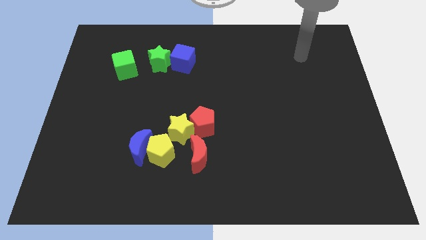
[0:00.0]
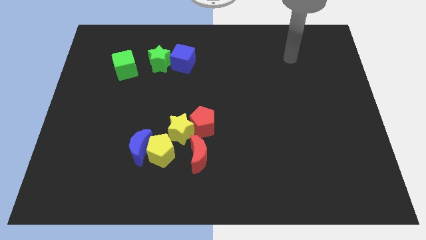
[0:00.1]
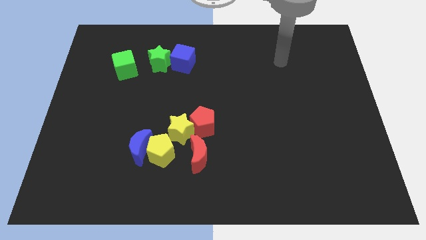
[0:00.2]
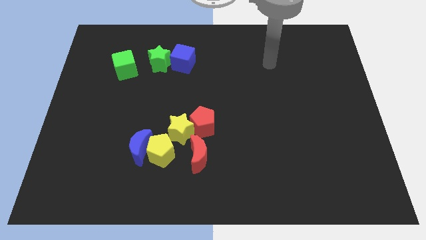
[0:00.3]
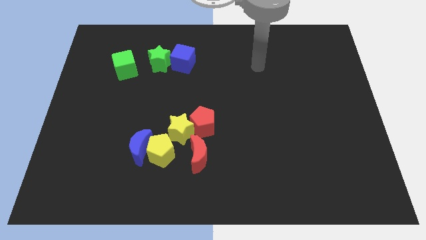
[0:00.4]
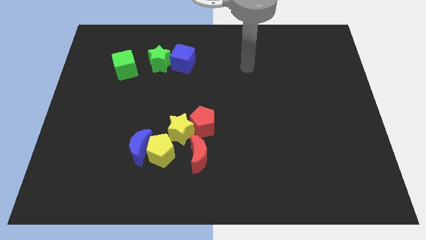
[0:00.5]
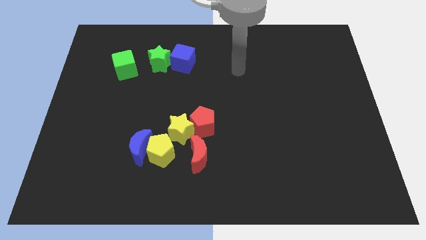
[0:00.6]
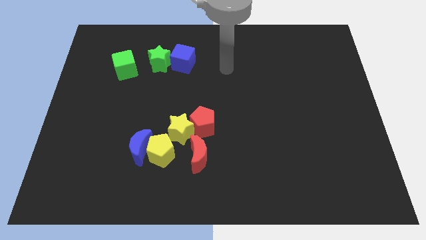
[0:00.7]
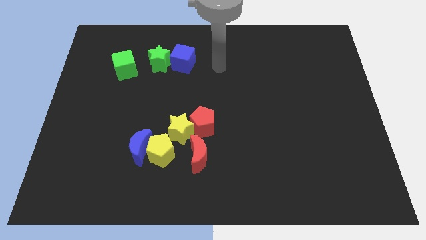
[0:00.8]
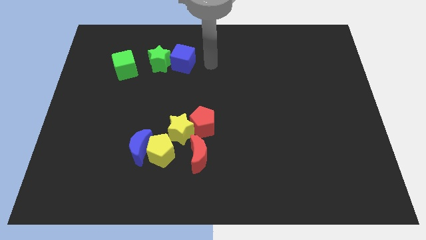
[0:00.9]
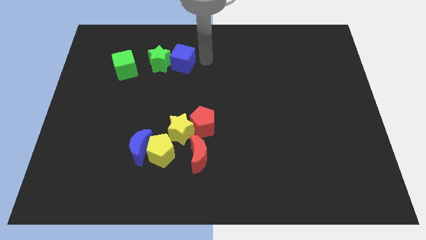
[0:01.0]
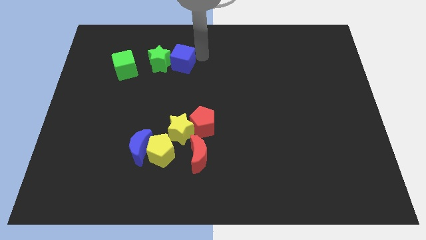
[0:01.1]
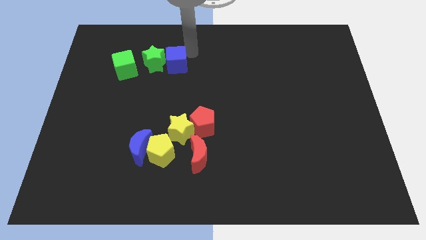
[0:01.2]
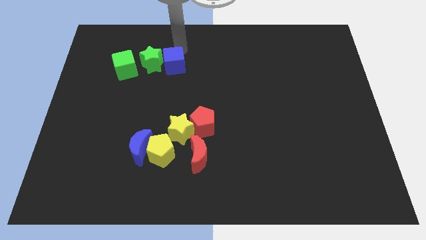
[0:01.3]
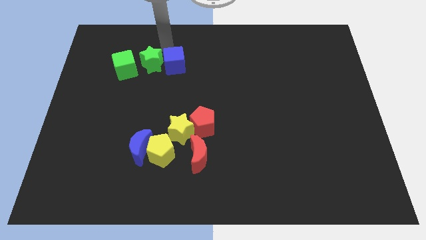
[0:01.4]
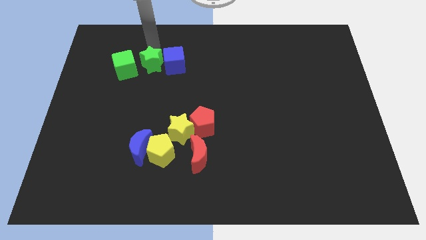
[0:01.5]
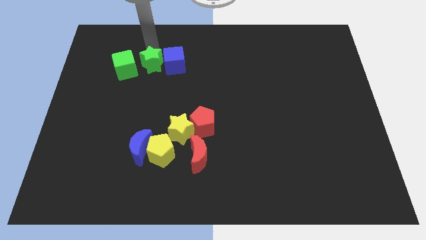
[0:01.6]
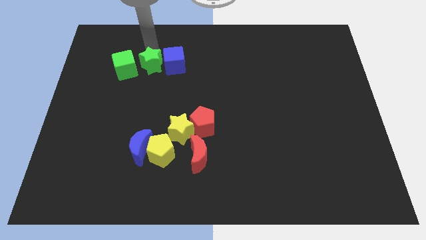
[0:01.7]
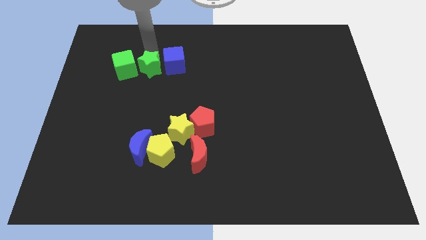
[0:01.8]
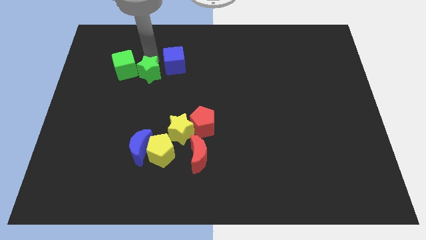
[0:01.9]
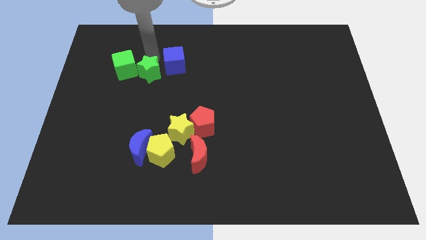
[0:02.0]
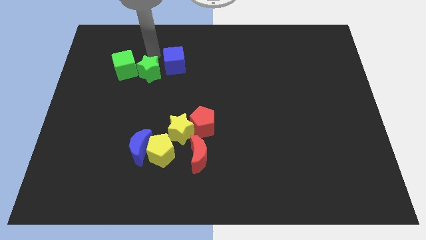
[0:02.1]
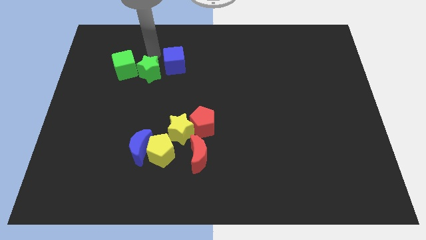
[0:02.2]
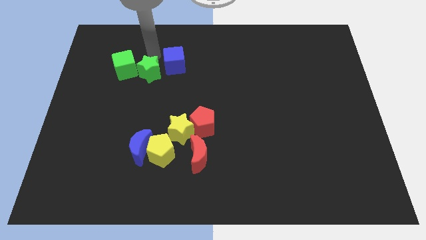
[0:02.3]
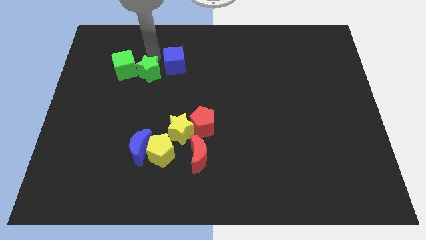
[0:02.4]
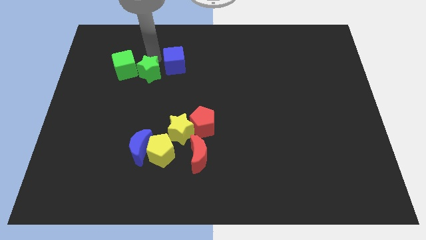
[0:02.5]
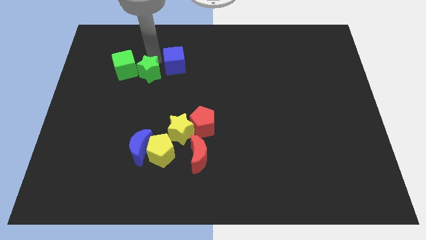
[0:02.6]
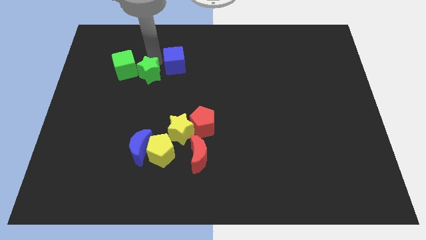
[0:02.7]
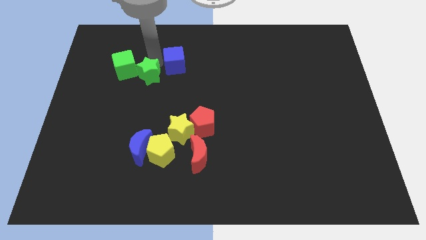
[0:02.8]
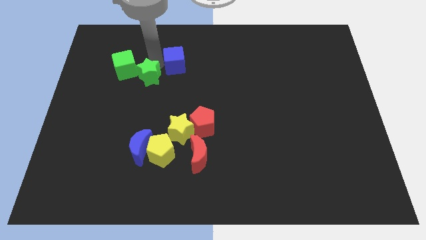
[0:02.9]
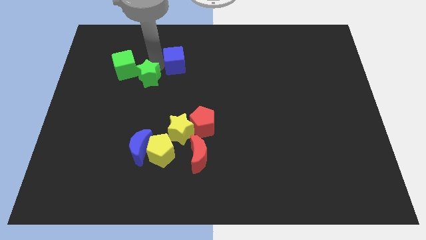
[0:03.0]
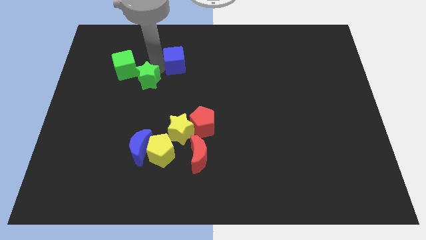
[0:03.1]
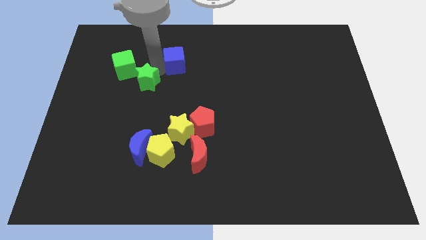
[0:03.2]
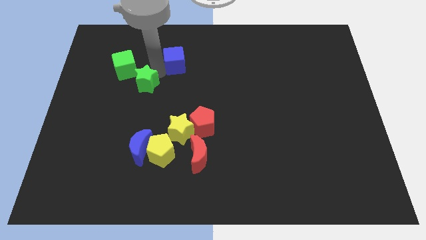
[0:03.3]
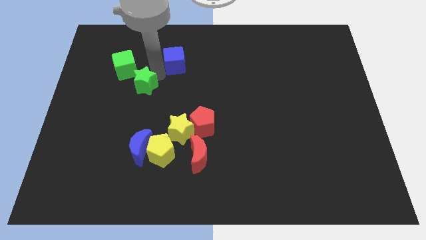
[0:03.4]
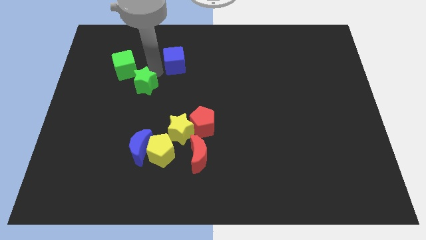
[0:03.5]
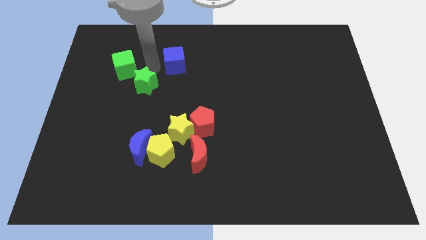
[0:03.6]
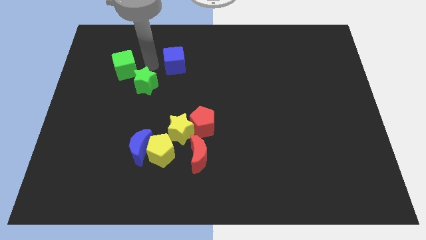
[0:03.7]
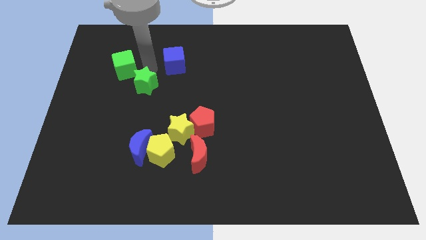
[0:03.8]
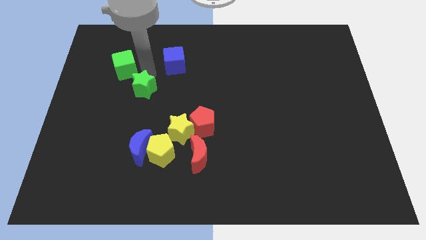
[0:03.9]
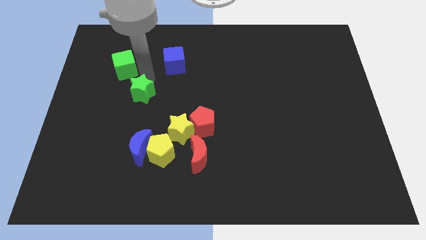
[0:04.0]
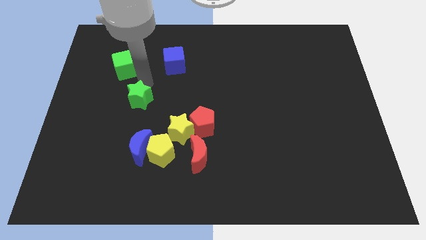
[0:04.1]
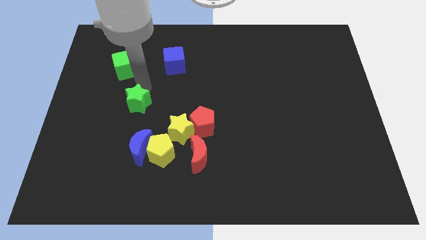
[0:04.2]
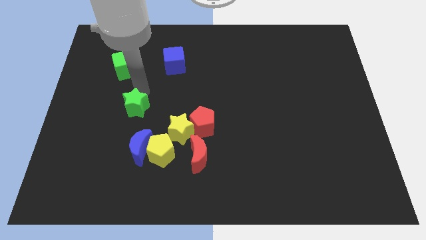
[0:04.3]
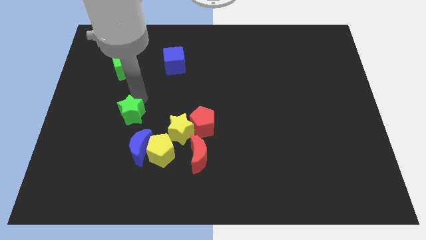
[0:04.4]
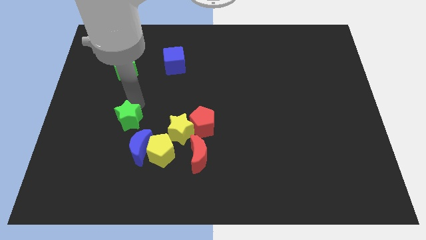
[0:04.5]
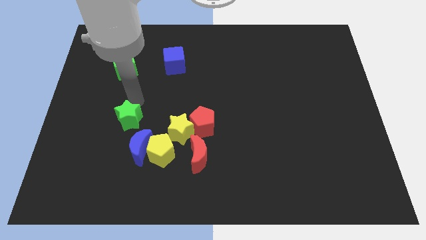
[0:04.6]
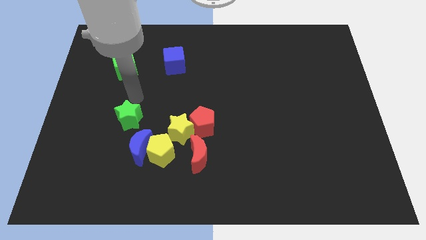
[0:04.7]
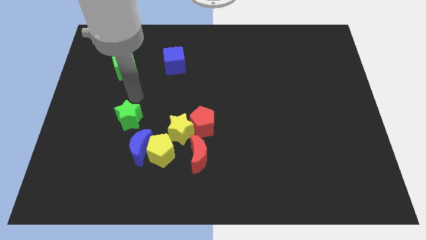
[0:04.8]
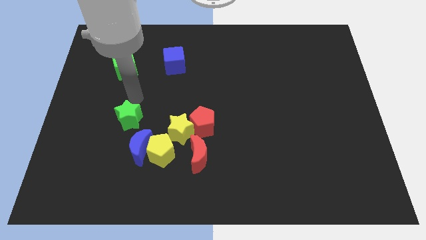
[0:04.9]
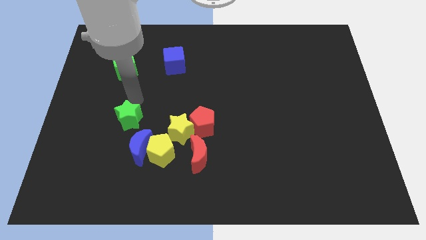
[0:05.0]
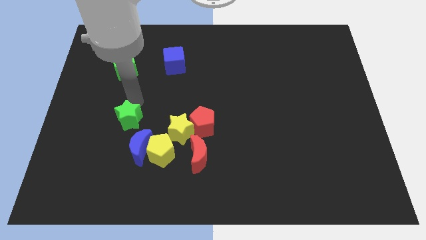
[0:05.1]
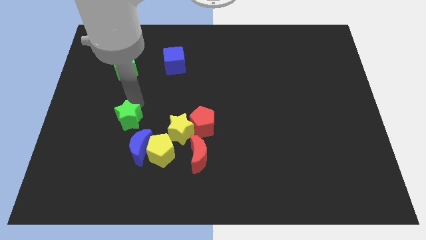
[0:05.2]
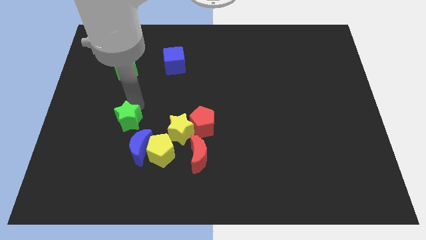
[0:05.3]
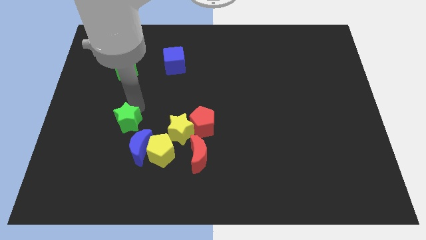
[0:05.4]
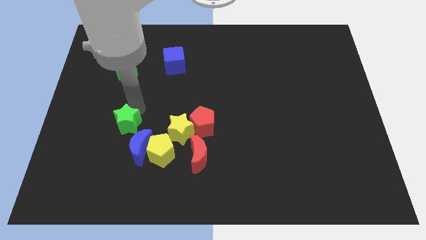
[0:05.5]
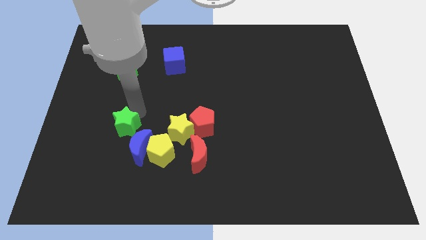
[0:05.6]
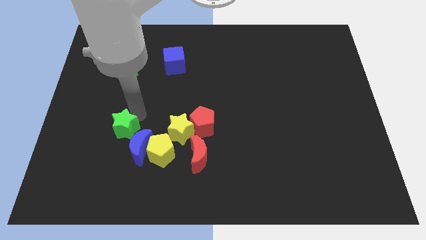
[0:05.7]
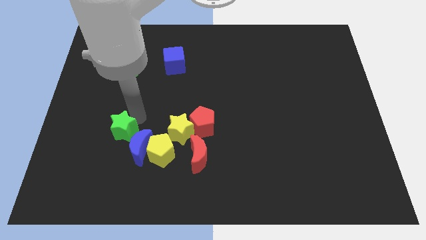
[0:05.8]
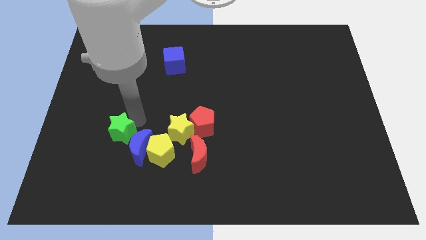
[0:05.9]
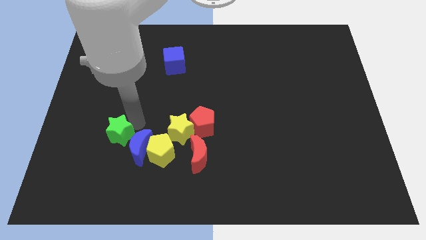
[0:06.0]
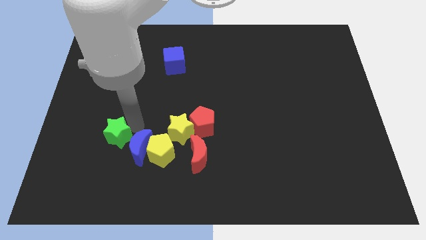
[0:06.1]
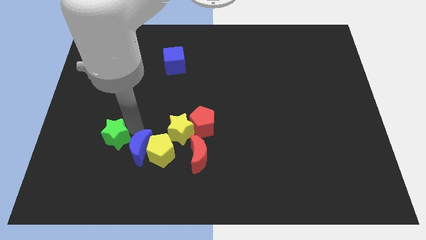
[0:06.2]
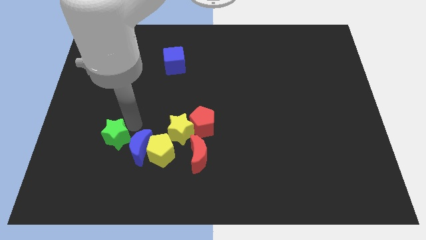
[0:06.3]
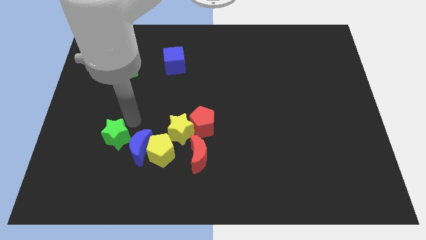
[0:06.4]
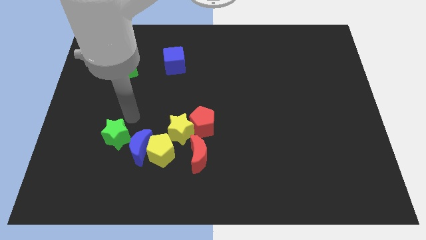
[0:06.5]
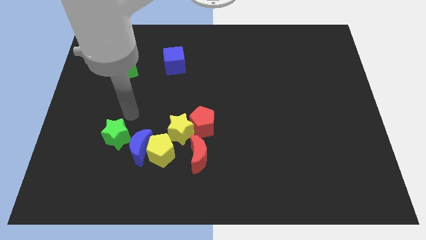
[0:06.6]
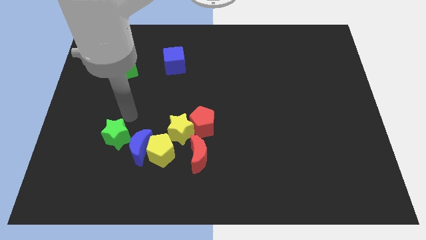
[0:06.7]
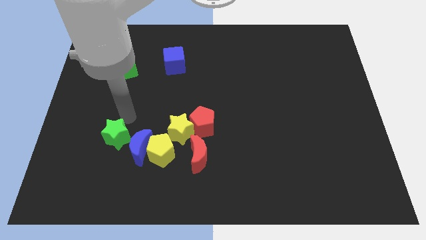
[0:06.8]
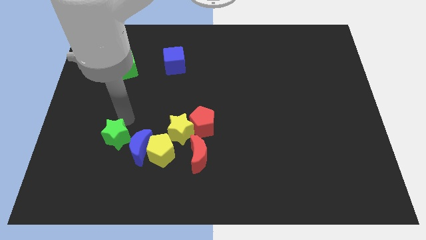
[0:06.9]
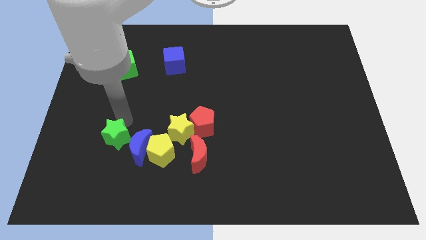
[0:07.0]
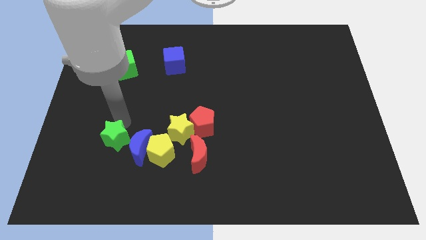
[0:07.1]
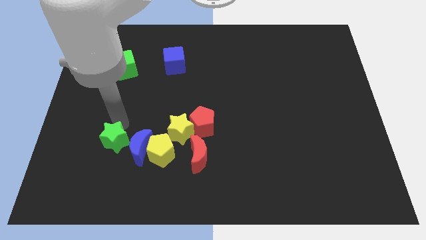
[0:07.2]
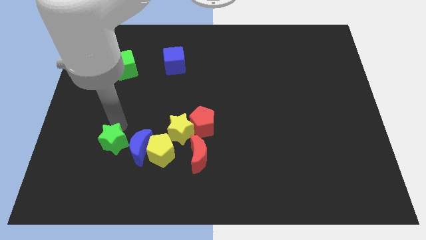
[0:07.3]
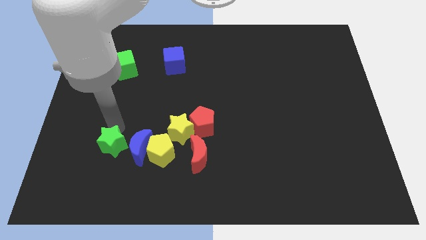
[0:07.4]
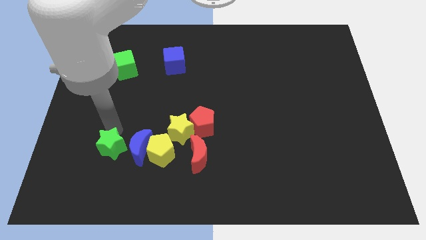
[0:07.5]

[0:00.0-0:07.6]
put the green star diagonally down and to the left of the blue moon
